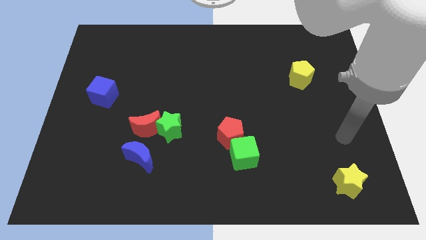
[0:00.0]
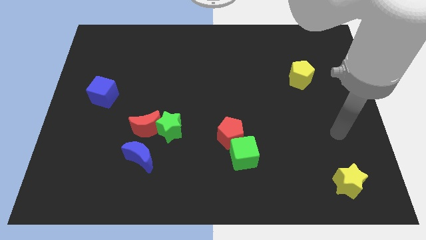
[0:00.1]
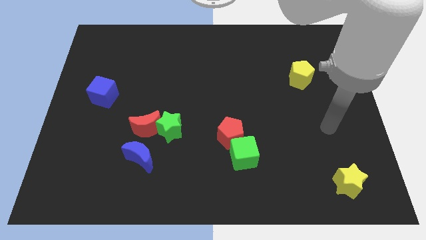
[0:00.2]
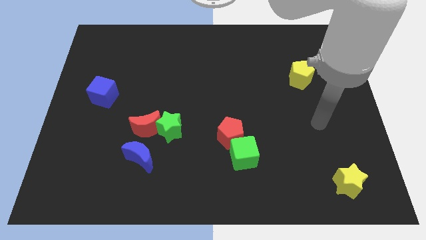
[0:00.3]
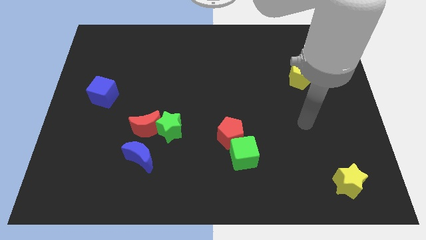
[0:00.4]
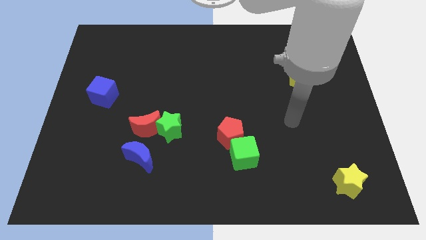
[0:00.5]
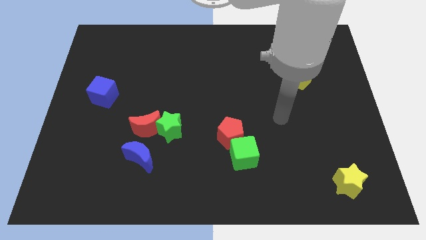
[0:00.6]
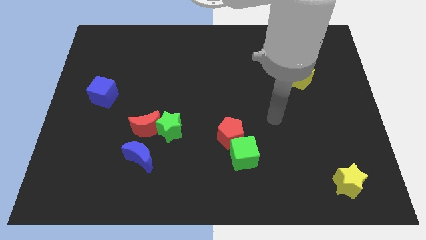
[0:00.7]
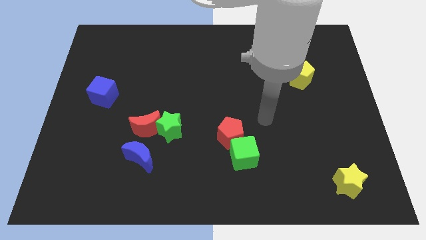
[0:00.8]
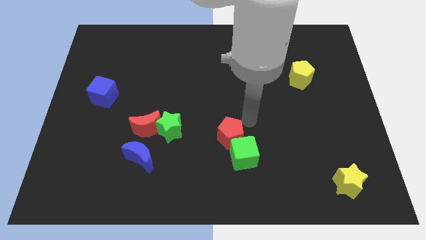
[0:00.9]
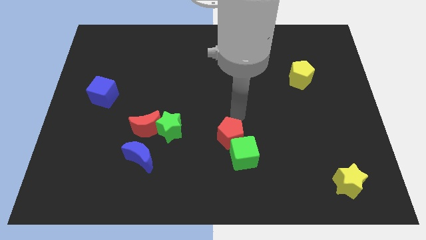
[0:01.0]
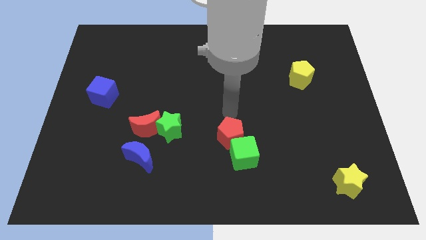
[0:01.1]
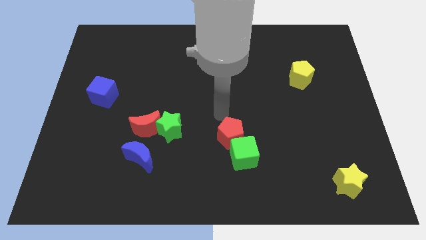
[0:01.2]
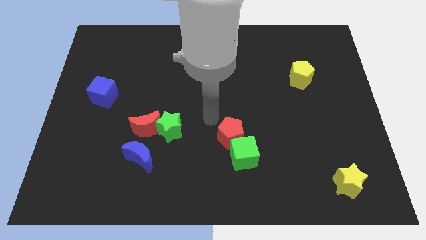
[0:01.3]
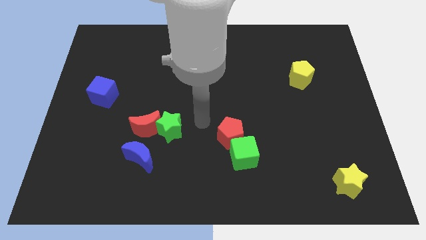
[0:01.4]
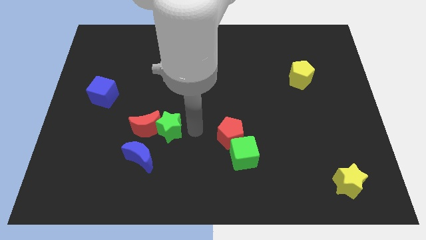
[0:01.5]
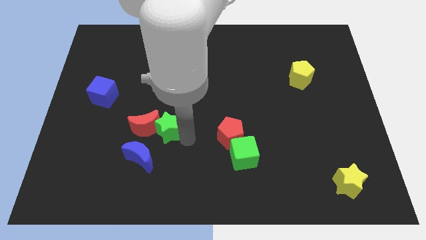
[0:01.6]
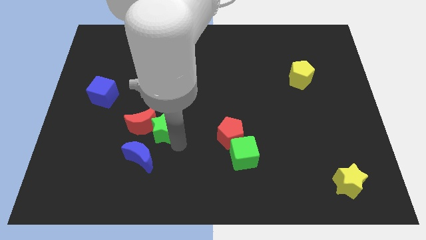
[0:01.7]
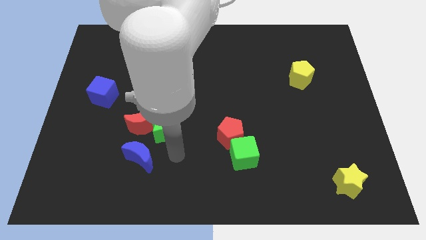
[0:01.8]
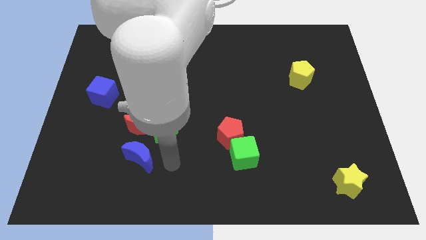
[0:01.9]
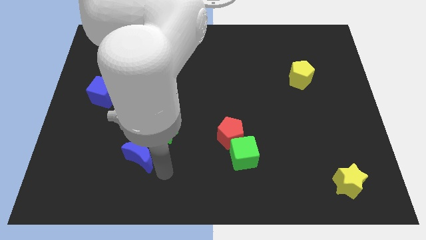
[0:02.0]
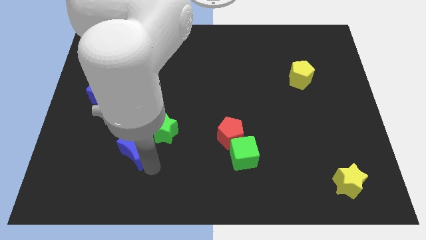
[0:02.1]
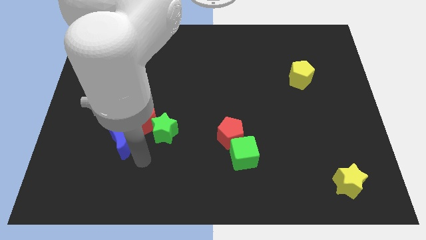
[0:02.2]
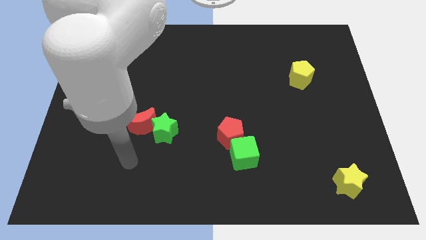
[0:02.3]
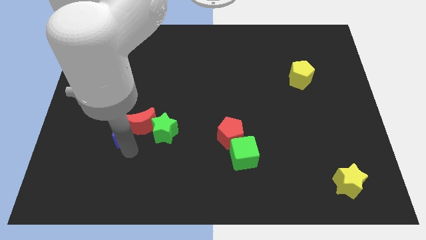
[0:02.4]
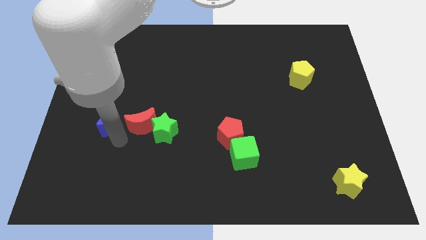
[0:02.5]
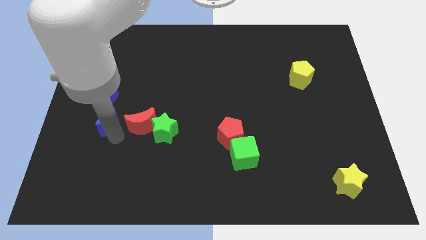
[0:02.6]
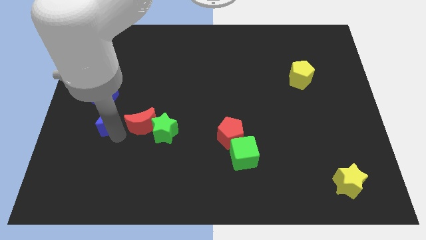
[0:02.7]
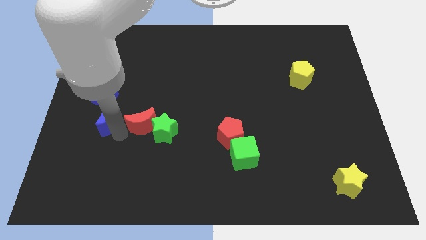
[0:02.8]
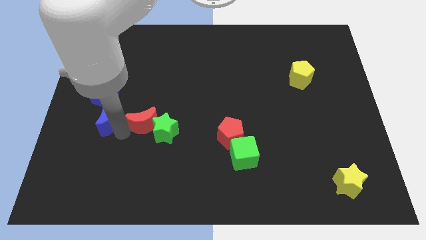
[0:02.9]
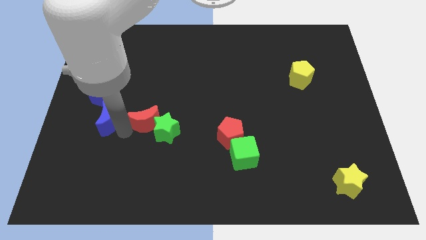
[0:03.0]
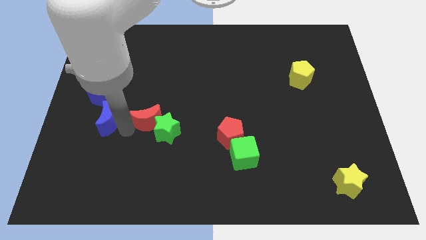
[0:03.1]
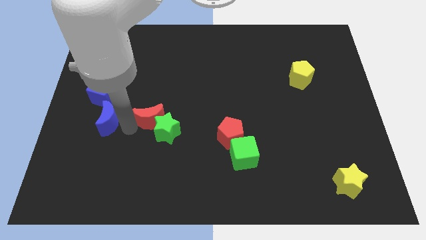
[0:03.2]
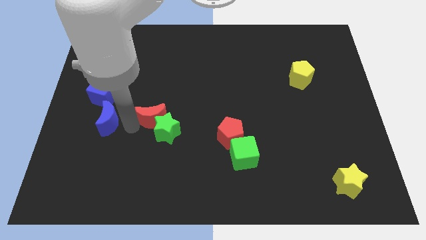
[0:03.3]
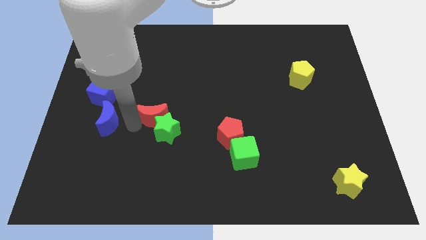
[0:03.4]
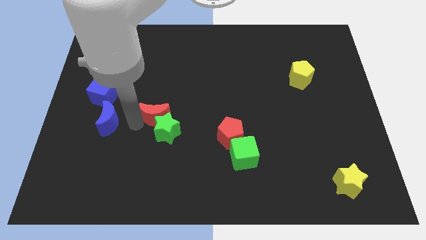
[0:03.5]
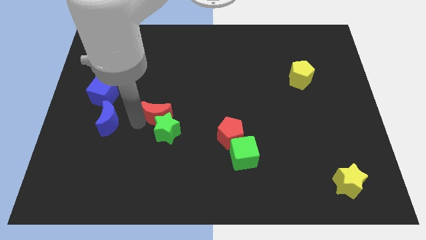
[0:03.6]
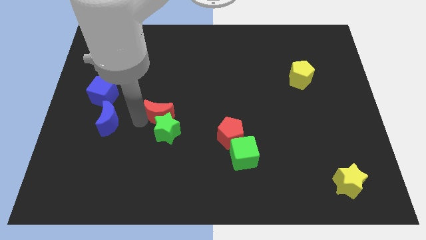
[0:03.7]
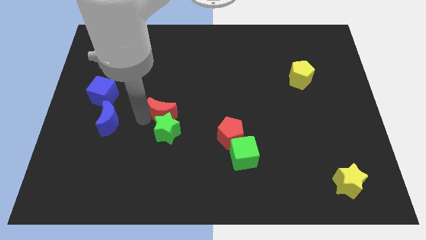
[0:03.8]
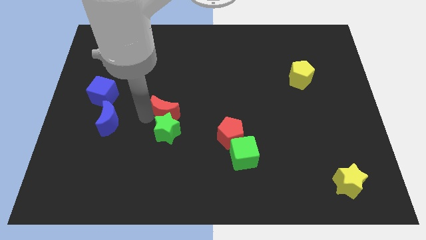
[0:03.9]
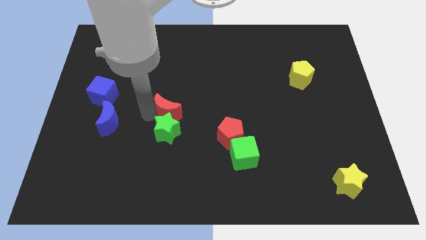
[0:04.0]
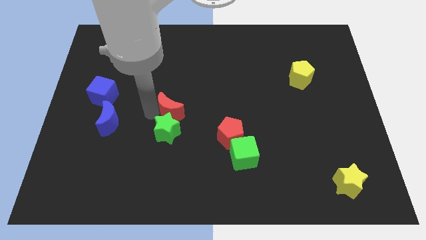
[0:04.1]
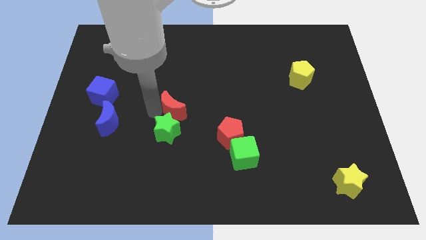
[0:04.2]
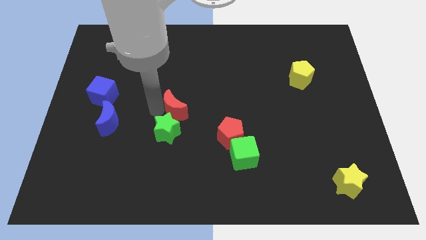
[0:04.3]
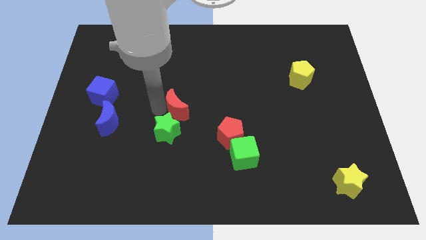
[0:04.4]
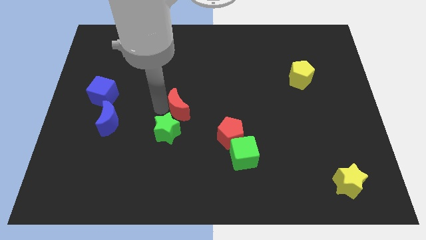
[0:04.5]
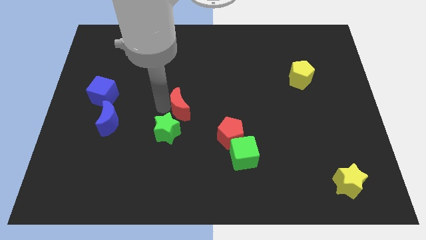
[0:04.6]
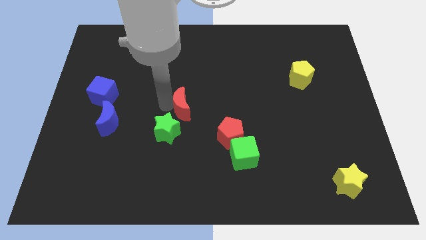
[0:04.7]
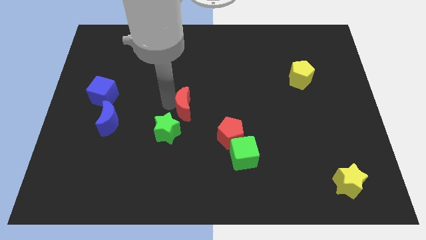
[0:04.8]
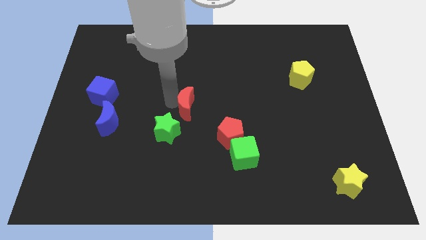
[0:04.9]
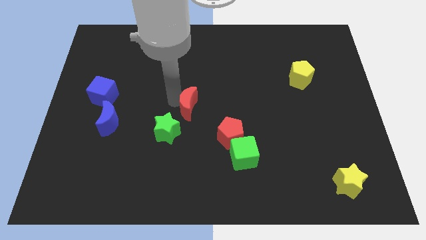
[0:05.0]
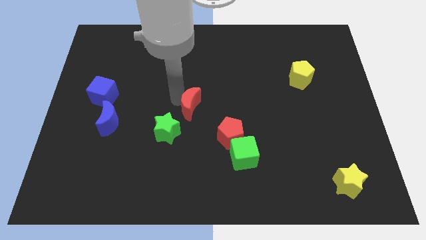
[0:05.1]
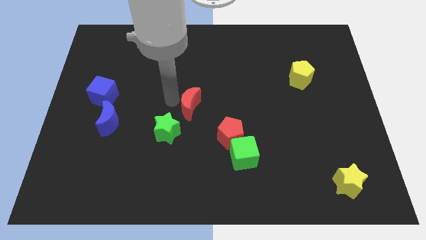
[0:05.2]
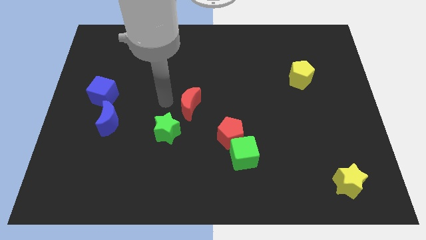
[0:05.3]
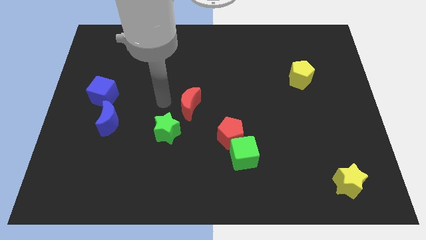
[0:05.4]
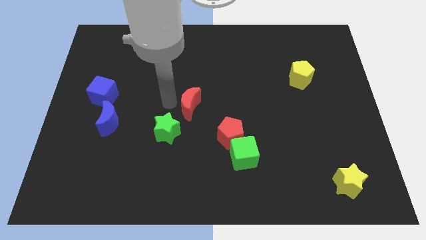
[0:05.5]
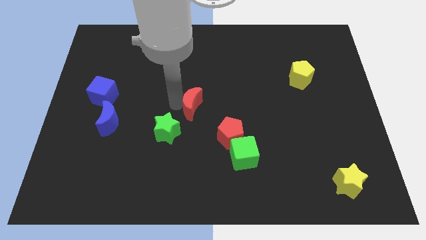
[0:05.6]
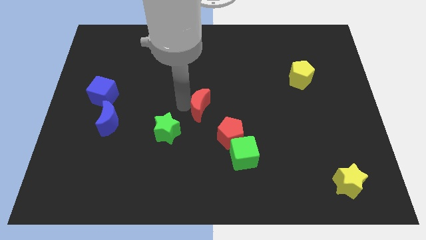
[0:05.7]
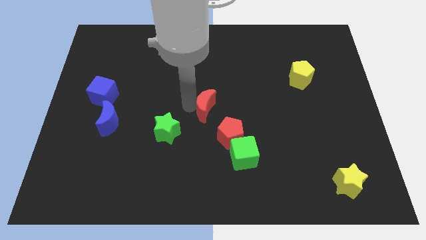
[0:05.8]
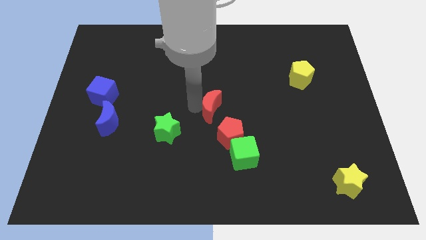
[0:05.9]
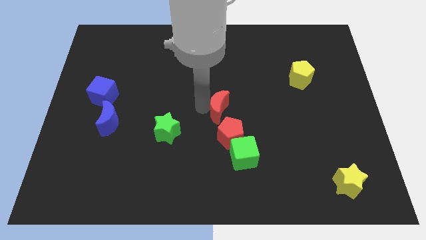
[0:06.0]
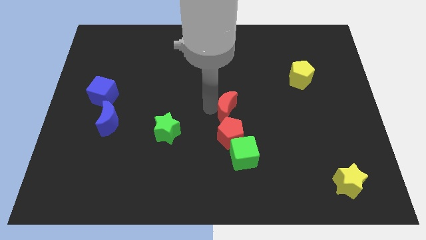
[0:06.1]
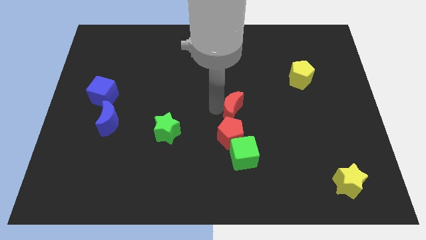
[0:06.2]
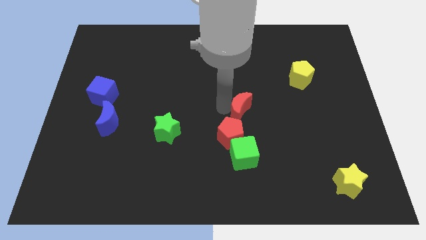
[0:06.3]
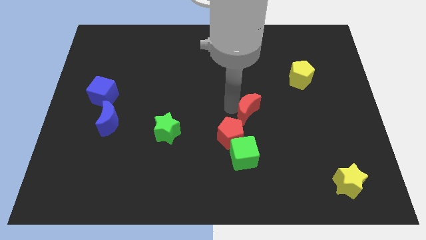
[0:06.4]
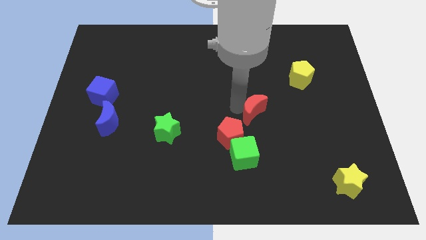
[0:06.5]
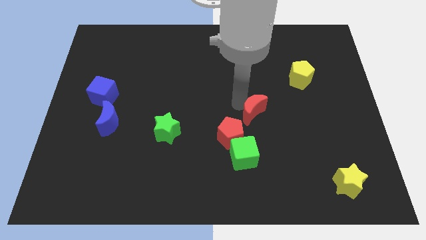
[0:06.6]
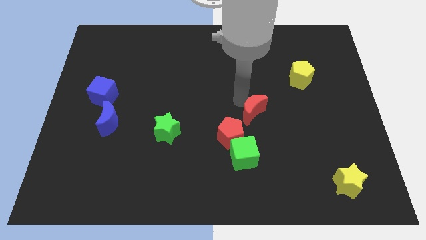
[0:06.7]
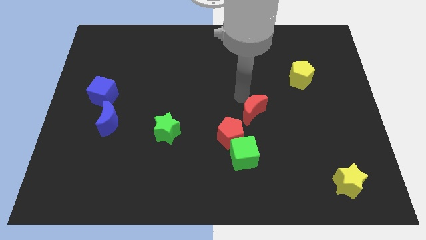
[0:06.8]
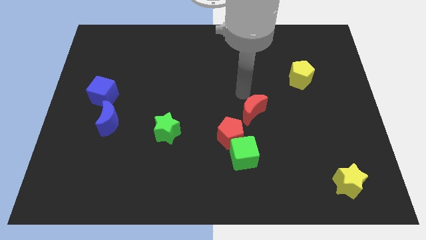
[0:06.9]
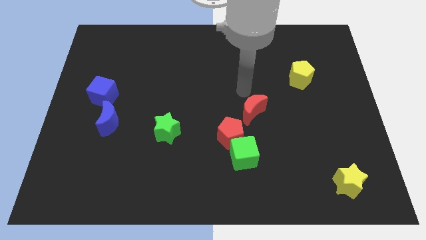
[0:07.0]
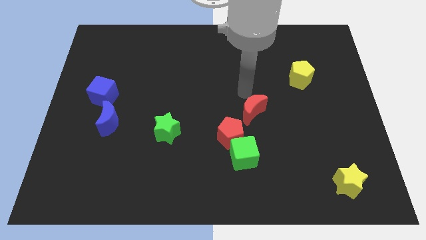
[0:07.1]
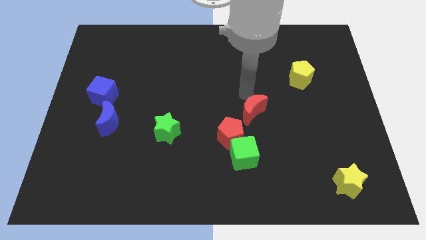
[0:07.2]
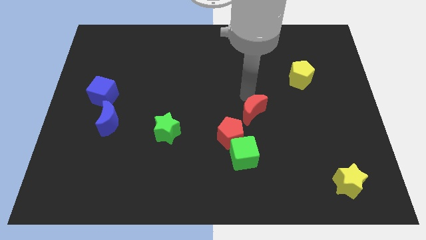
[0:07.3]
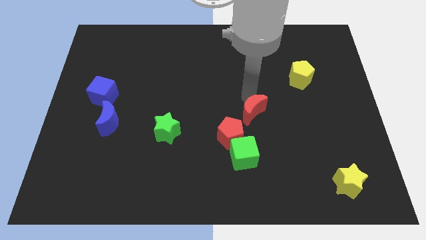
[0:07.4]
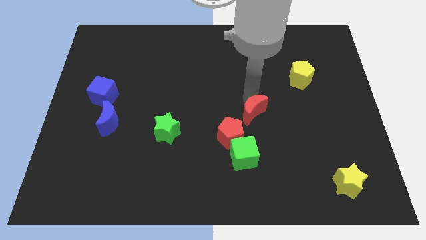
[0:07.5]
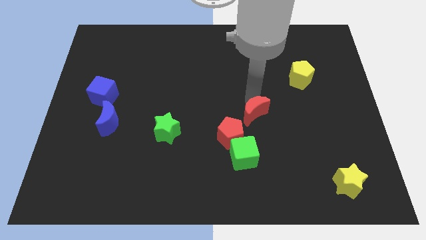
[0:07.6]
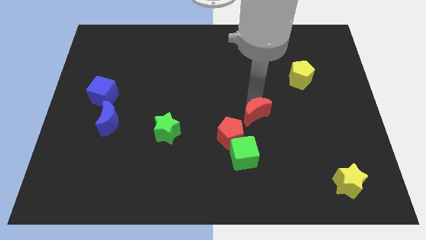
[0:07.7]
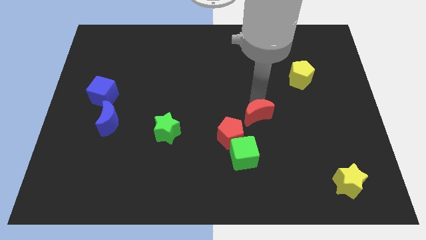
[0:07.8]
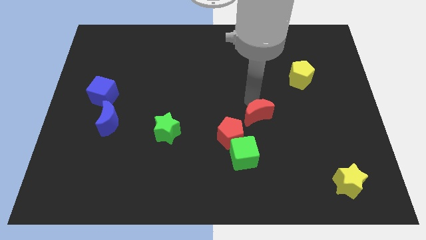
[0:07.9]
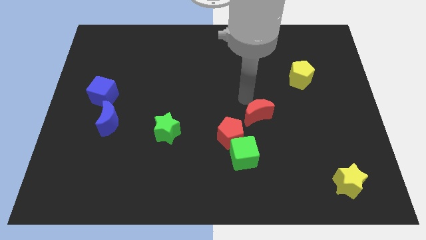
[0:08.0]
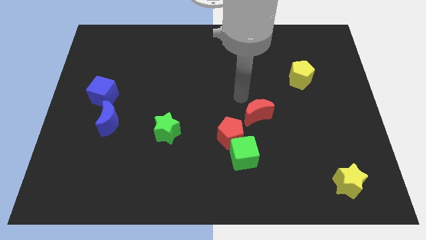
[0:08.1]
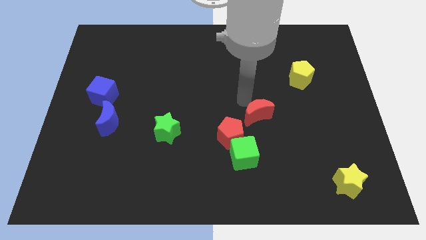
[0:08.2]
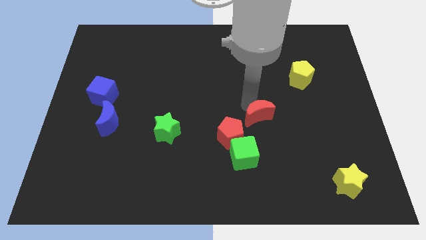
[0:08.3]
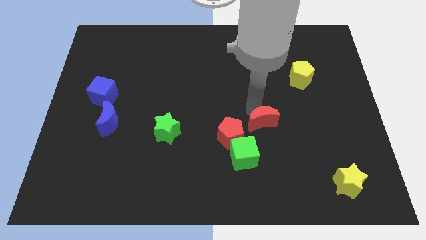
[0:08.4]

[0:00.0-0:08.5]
slide the red moon just right of the red pentagon
